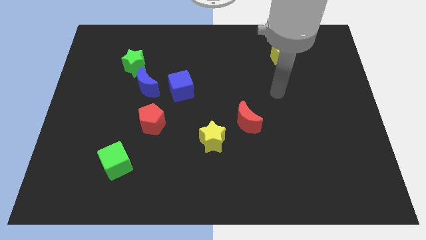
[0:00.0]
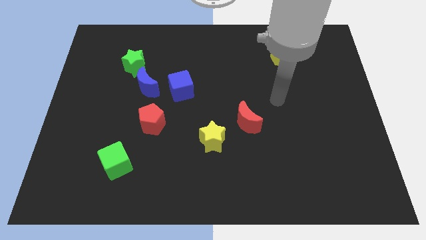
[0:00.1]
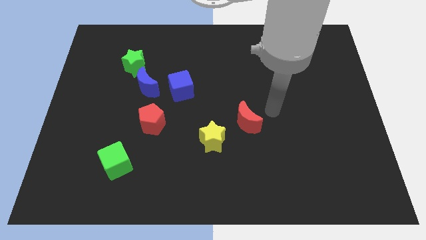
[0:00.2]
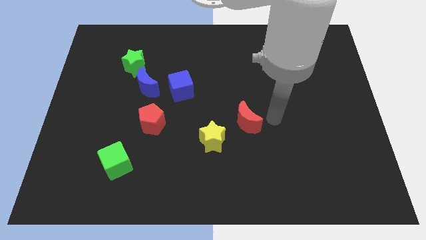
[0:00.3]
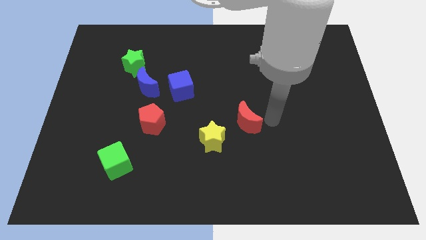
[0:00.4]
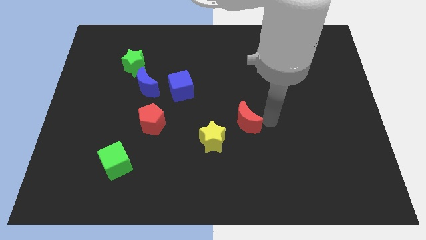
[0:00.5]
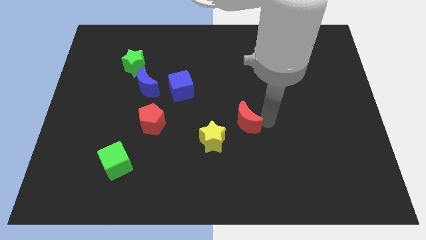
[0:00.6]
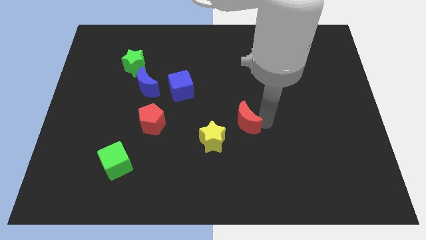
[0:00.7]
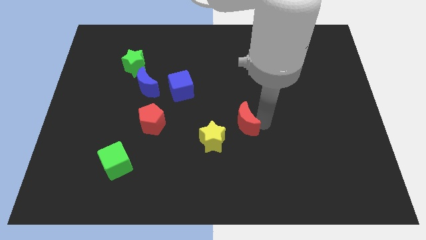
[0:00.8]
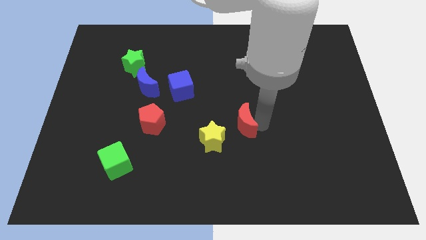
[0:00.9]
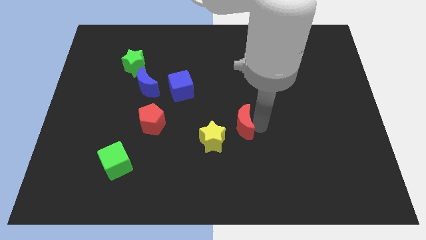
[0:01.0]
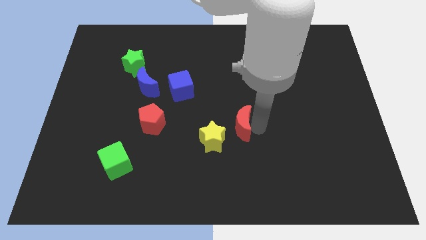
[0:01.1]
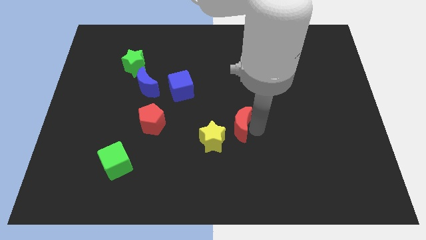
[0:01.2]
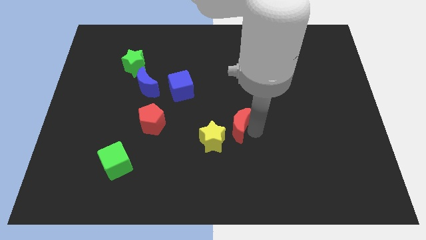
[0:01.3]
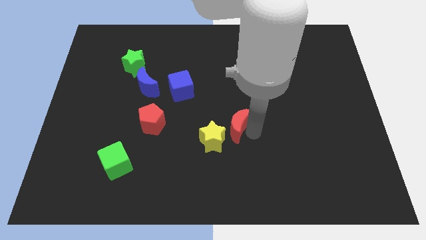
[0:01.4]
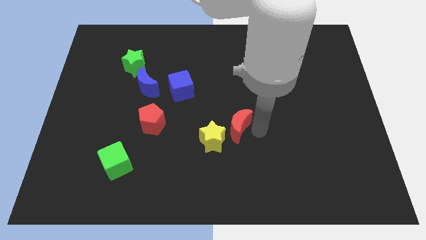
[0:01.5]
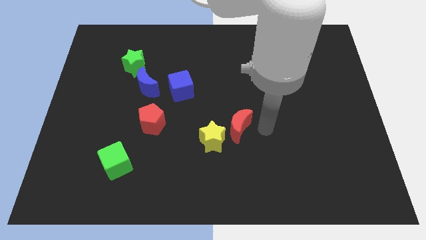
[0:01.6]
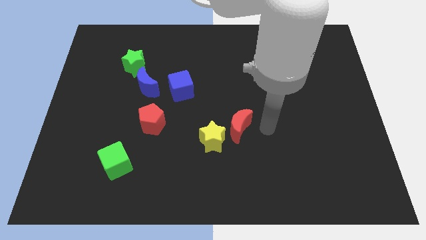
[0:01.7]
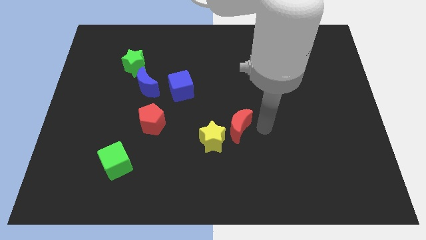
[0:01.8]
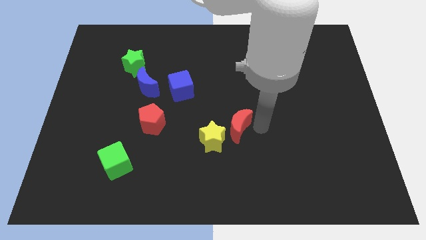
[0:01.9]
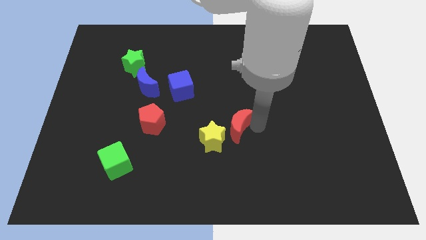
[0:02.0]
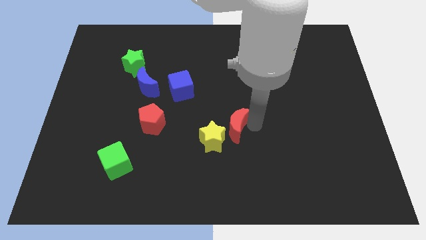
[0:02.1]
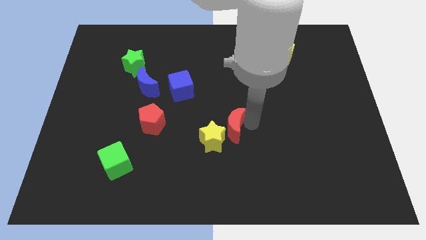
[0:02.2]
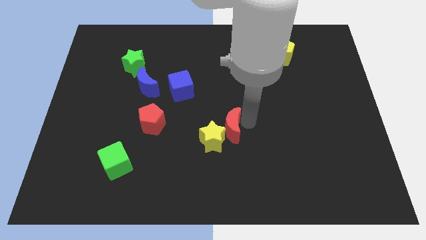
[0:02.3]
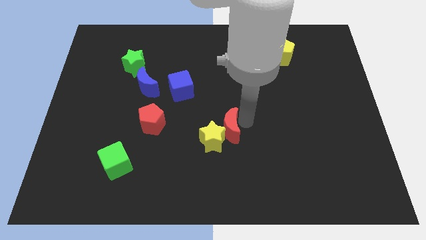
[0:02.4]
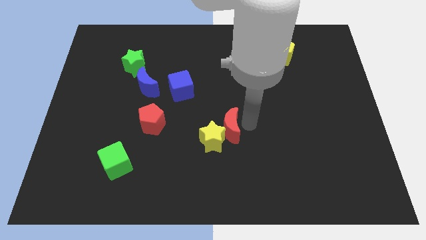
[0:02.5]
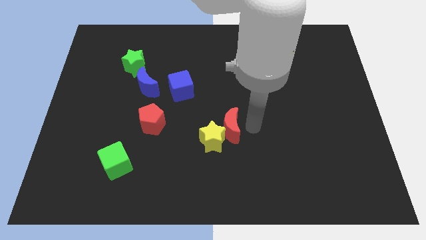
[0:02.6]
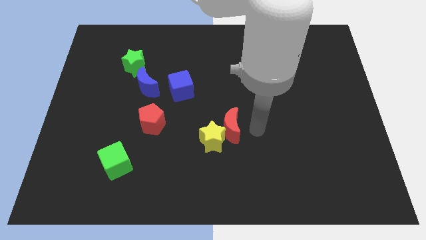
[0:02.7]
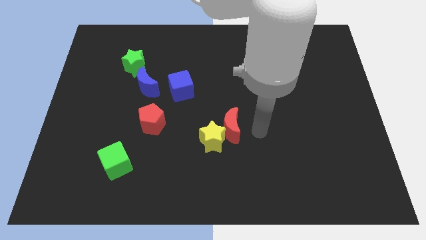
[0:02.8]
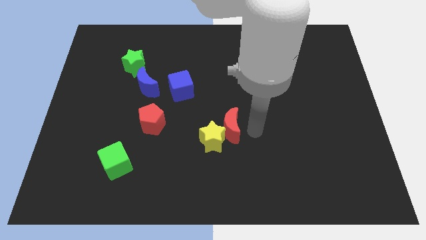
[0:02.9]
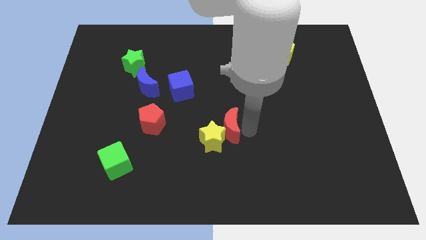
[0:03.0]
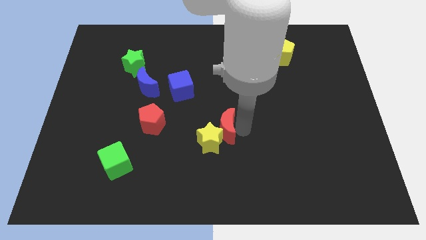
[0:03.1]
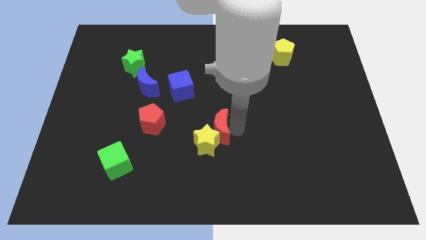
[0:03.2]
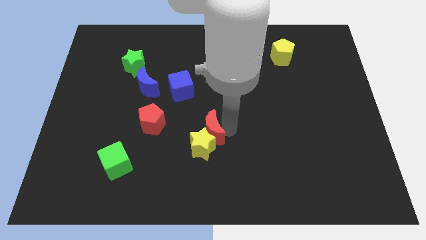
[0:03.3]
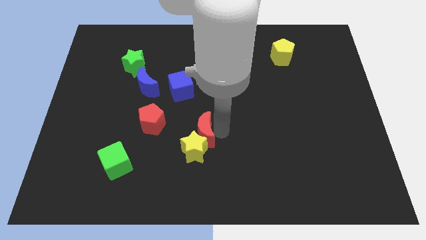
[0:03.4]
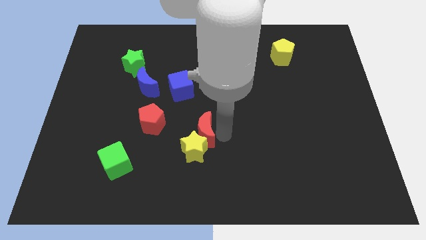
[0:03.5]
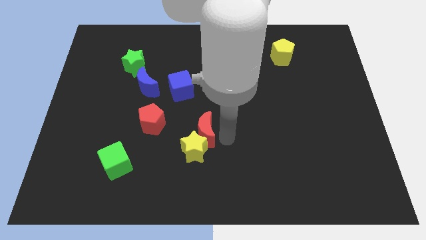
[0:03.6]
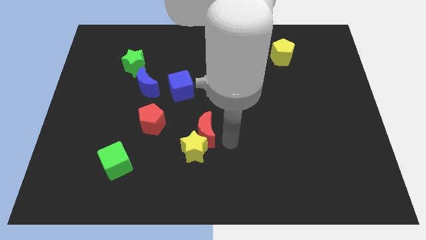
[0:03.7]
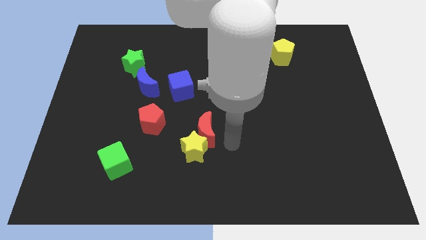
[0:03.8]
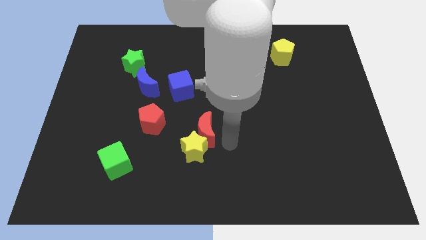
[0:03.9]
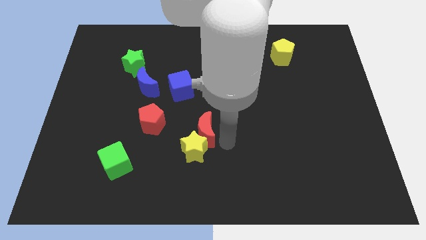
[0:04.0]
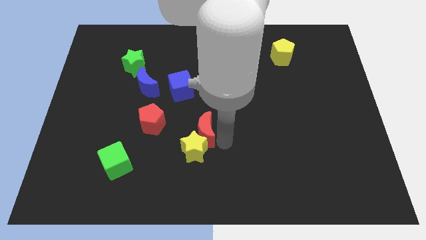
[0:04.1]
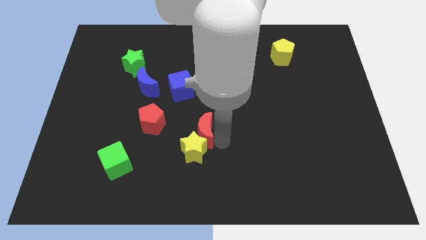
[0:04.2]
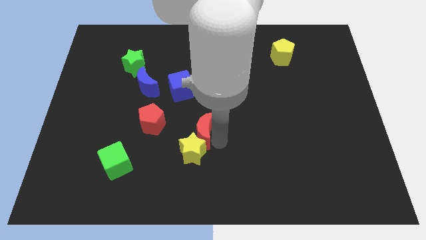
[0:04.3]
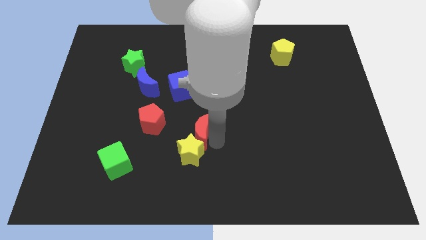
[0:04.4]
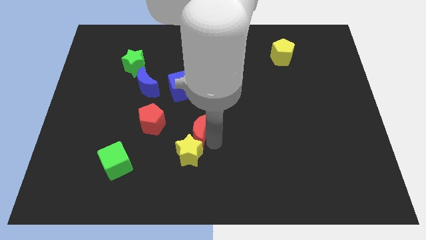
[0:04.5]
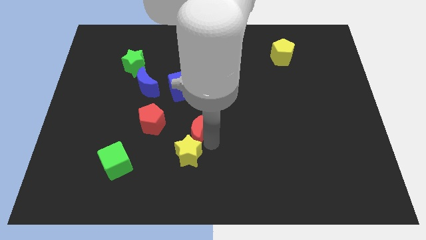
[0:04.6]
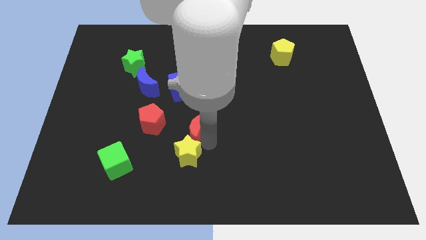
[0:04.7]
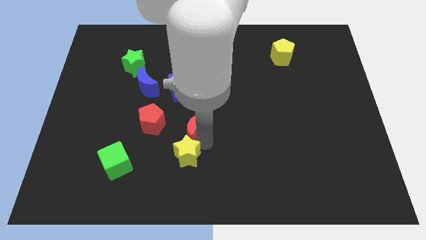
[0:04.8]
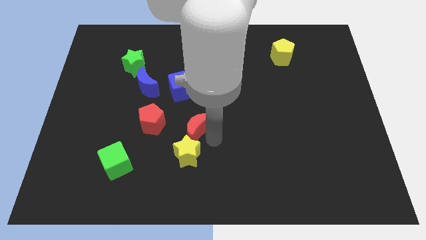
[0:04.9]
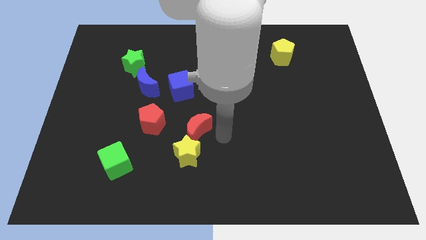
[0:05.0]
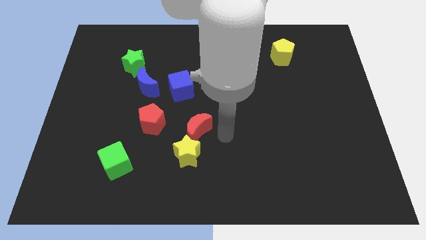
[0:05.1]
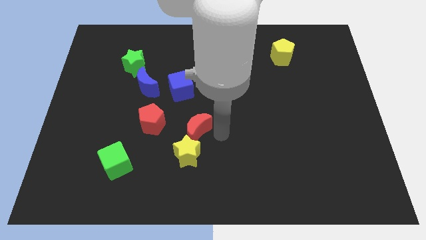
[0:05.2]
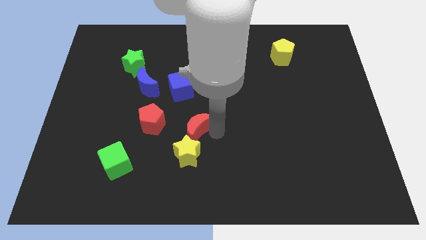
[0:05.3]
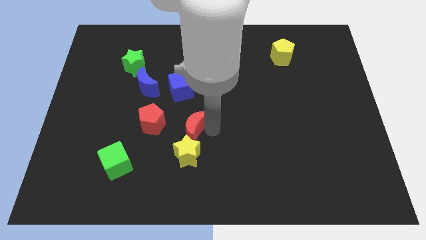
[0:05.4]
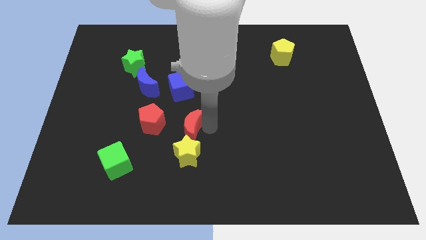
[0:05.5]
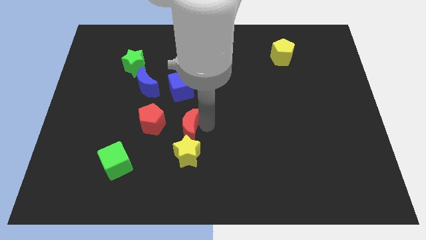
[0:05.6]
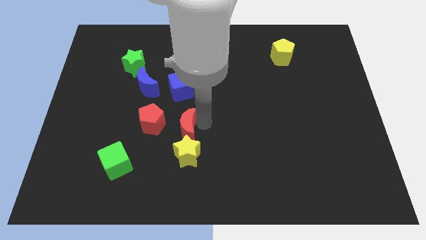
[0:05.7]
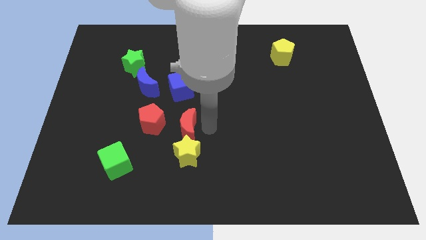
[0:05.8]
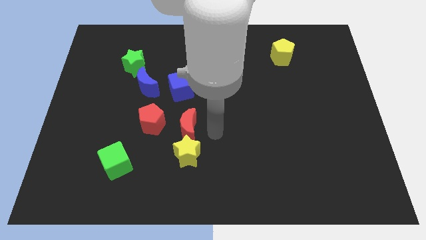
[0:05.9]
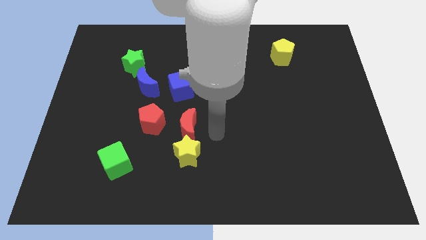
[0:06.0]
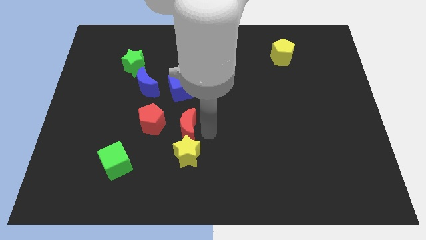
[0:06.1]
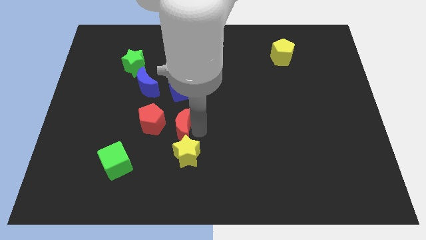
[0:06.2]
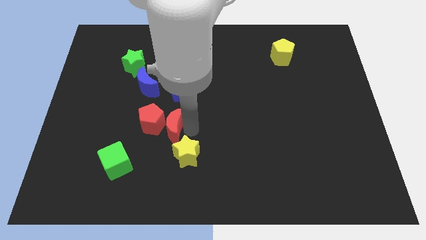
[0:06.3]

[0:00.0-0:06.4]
slide the red moon towards the red pentagon
